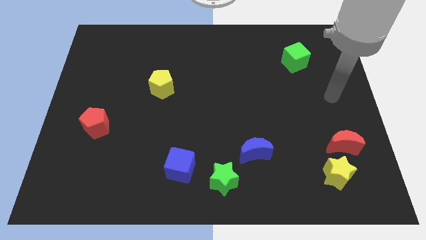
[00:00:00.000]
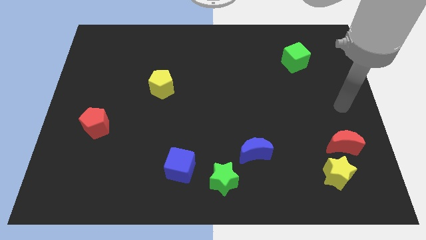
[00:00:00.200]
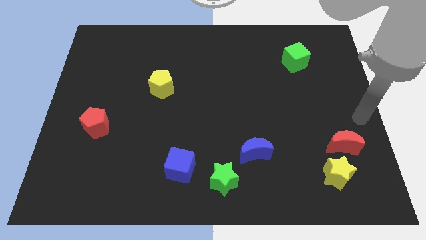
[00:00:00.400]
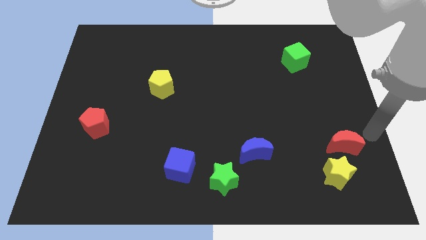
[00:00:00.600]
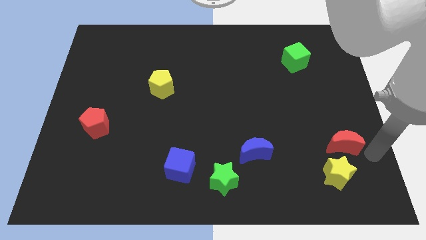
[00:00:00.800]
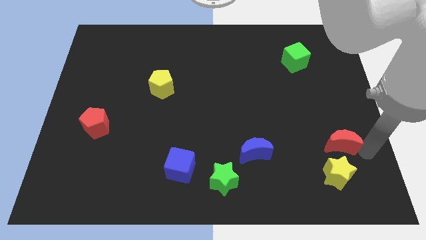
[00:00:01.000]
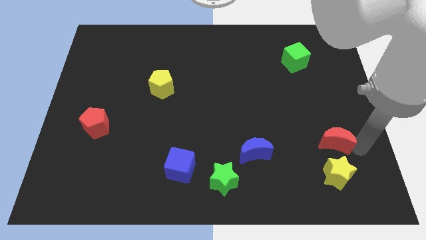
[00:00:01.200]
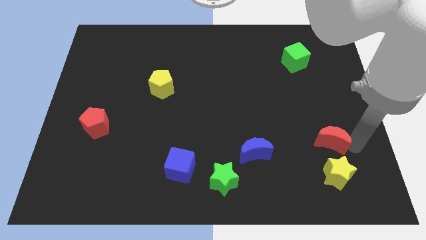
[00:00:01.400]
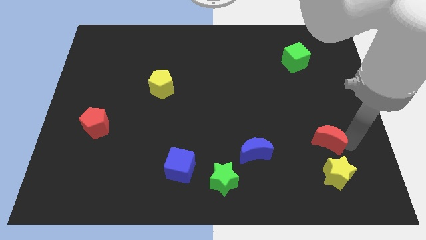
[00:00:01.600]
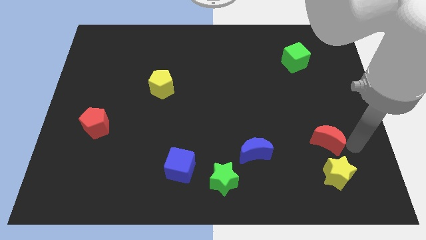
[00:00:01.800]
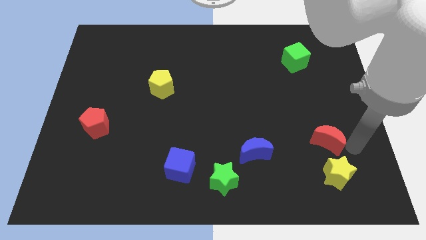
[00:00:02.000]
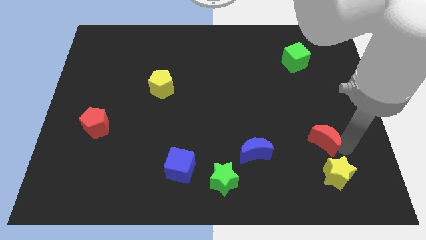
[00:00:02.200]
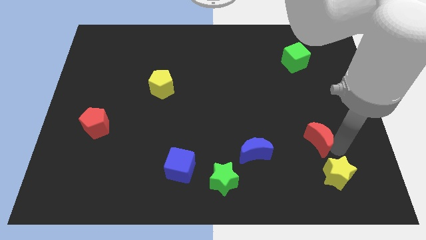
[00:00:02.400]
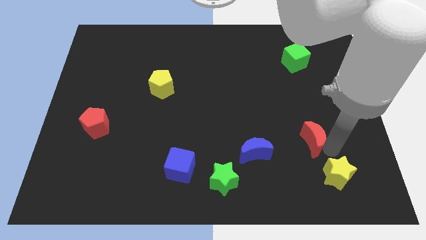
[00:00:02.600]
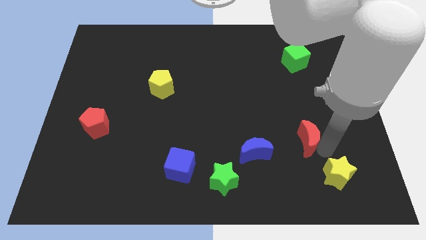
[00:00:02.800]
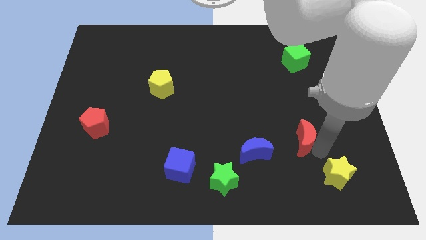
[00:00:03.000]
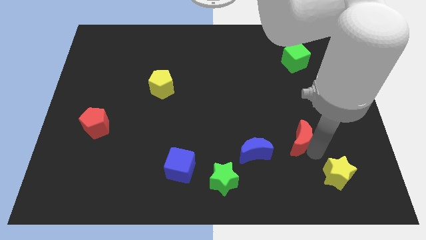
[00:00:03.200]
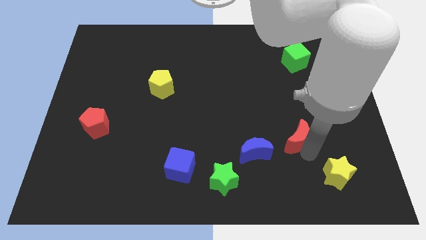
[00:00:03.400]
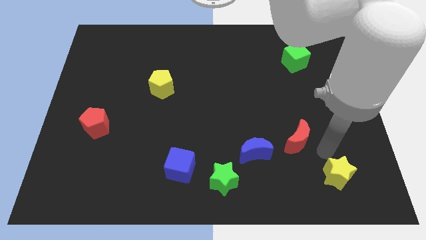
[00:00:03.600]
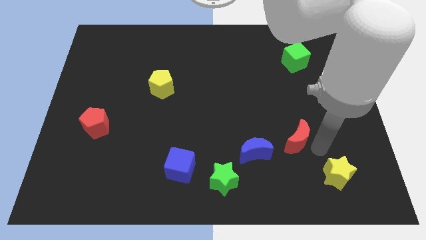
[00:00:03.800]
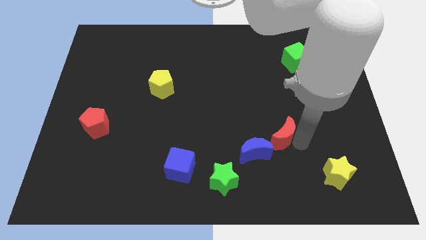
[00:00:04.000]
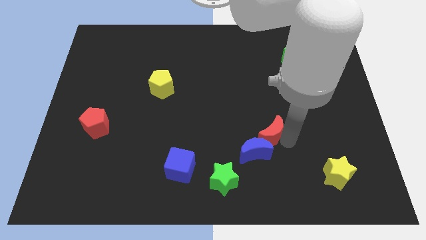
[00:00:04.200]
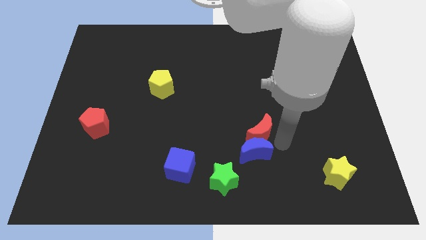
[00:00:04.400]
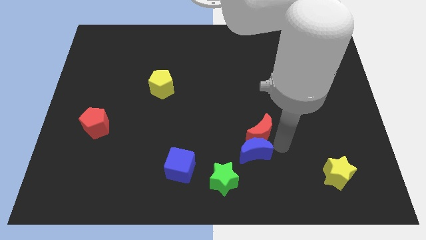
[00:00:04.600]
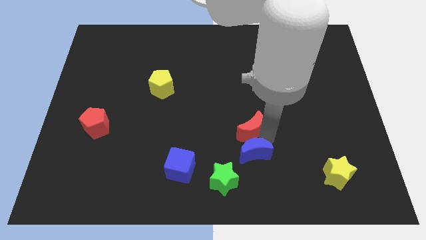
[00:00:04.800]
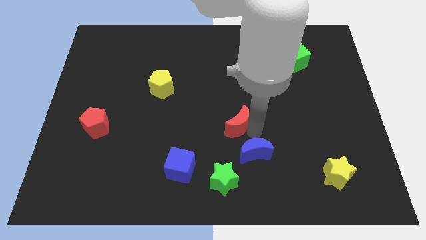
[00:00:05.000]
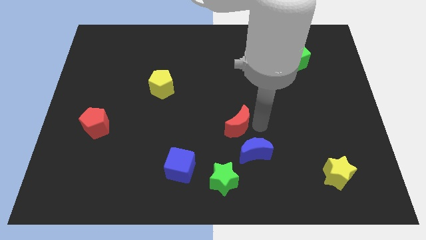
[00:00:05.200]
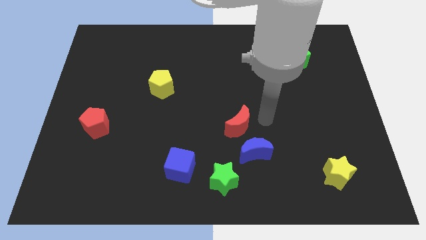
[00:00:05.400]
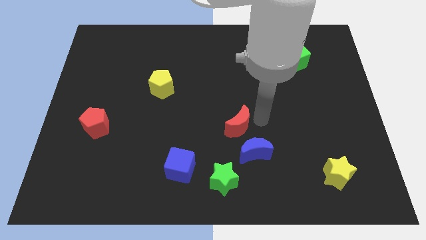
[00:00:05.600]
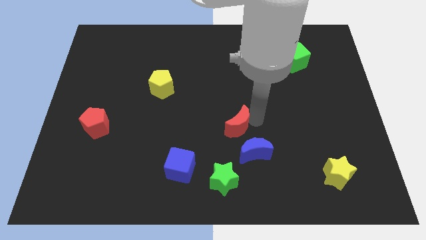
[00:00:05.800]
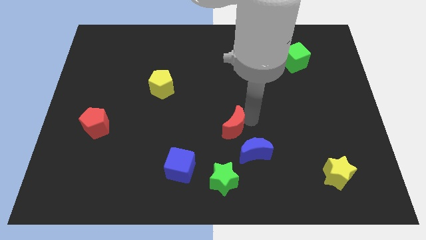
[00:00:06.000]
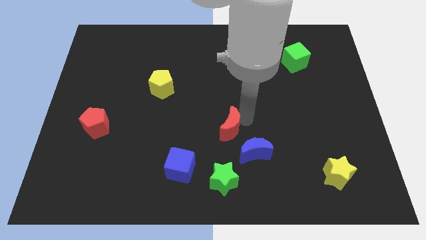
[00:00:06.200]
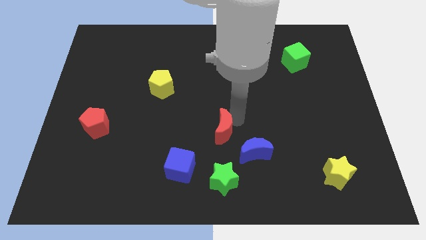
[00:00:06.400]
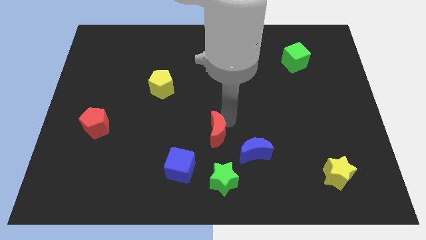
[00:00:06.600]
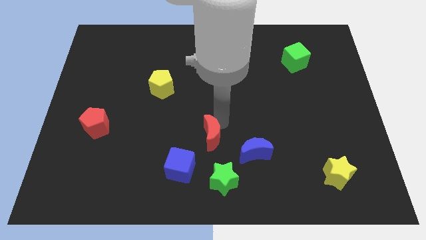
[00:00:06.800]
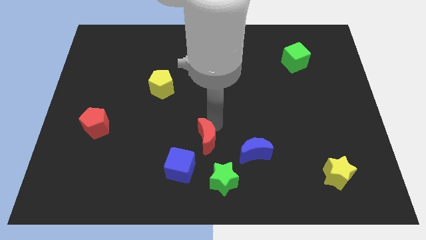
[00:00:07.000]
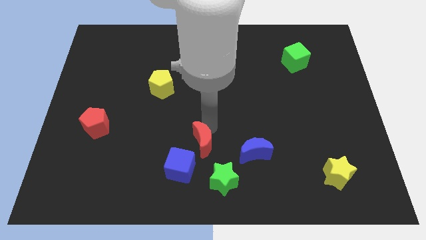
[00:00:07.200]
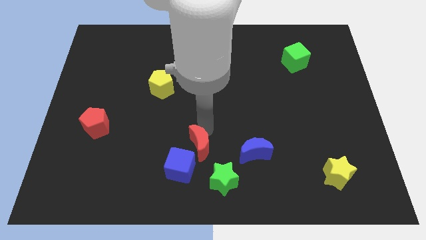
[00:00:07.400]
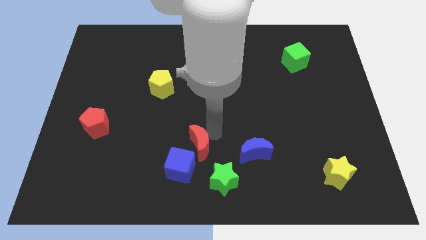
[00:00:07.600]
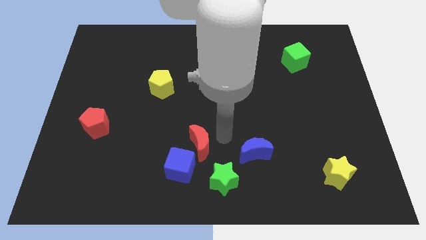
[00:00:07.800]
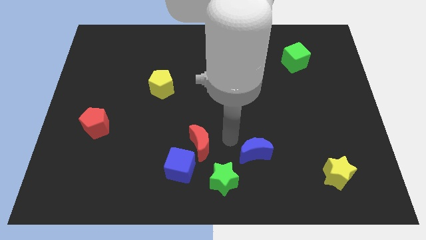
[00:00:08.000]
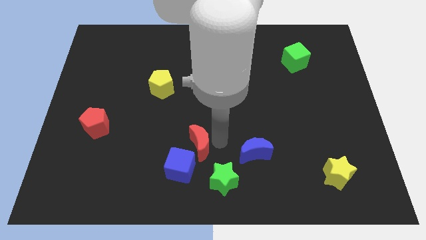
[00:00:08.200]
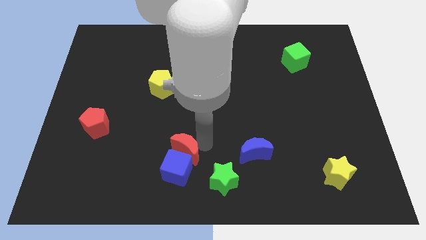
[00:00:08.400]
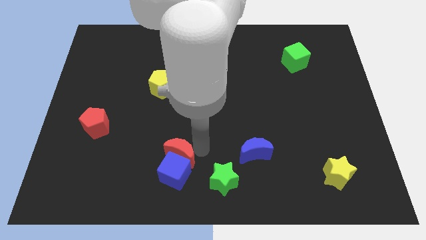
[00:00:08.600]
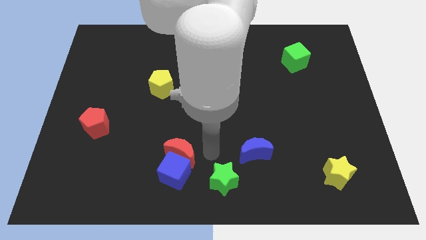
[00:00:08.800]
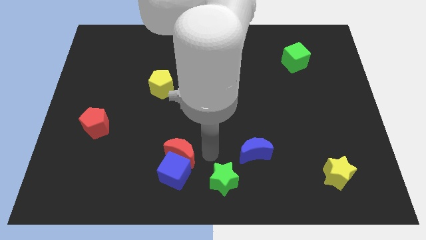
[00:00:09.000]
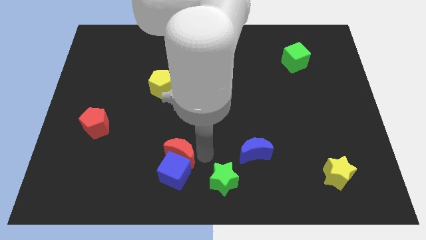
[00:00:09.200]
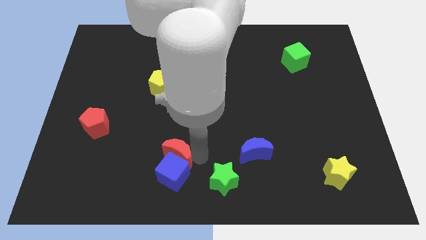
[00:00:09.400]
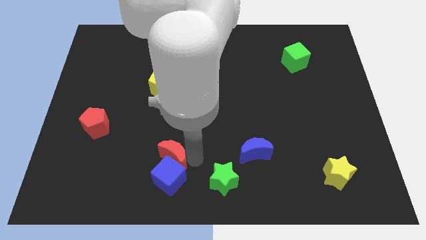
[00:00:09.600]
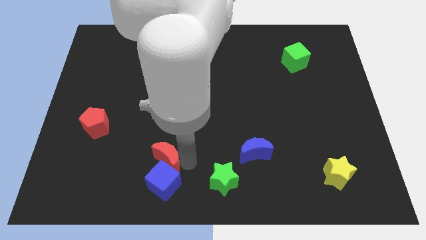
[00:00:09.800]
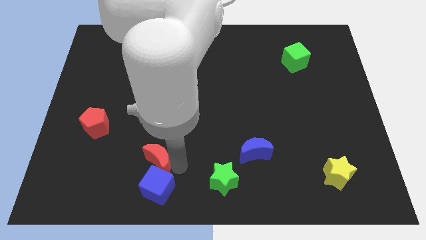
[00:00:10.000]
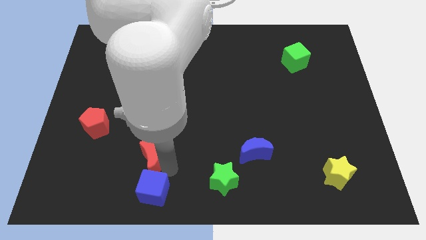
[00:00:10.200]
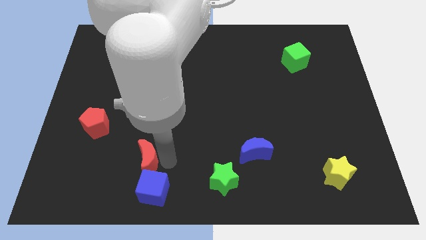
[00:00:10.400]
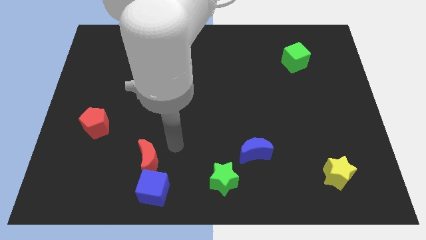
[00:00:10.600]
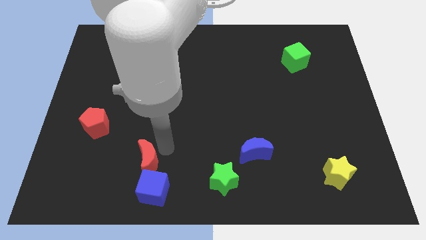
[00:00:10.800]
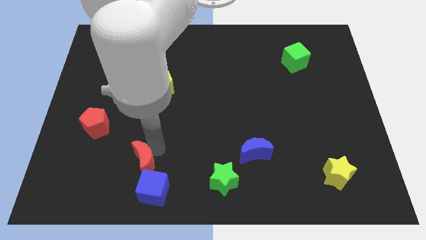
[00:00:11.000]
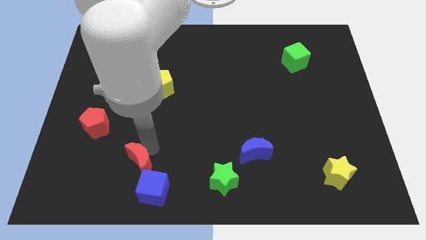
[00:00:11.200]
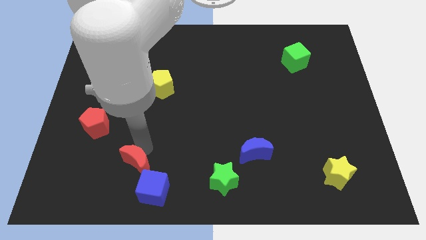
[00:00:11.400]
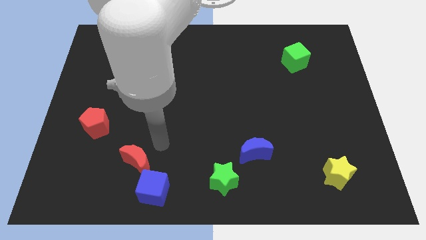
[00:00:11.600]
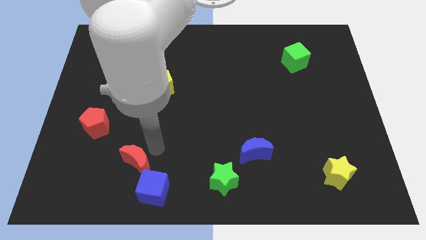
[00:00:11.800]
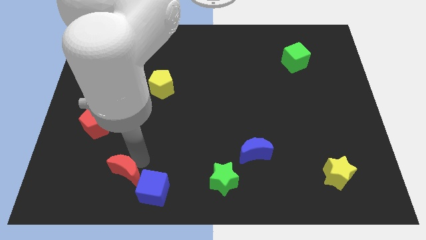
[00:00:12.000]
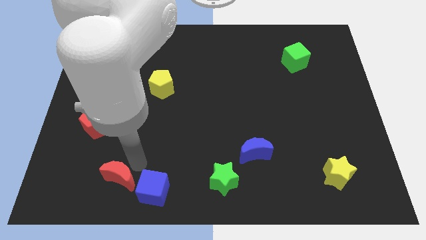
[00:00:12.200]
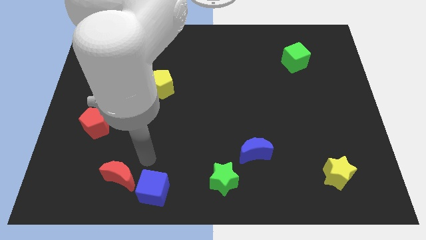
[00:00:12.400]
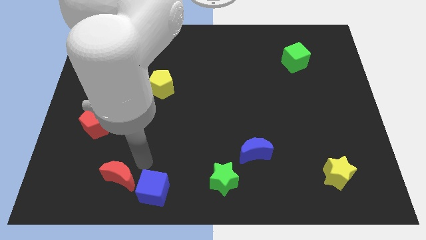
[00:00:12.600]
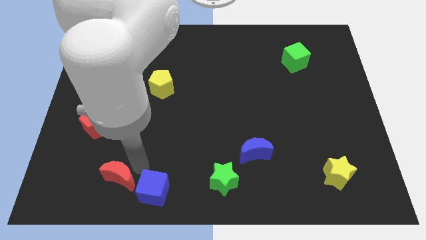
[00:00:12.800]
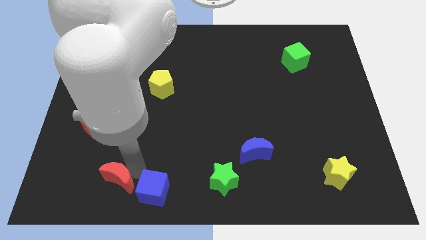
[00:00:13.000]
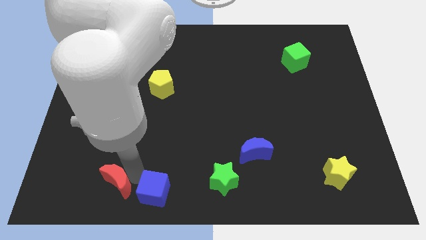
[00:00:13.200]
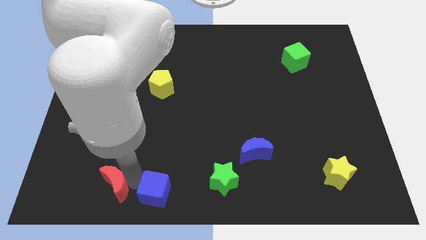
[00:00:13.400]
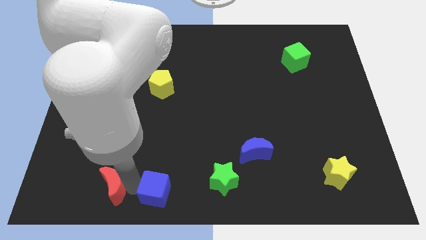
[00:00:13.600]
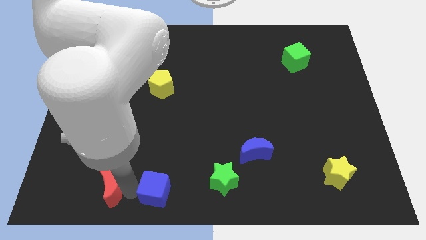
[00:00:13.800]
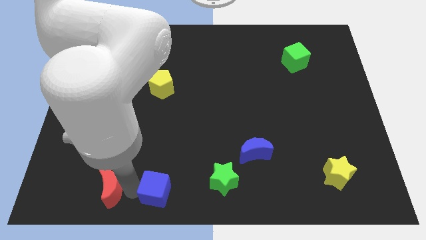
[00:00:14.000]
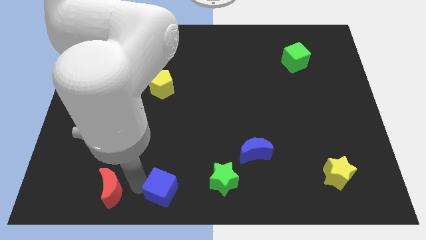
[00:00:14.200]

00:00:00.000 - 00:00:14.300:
push the red moon just left of the blue cube
